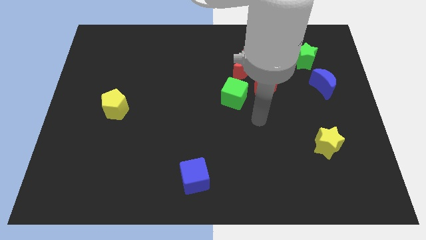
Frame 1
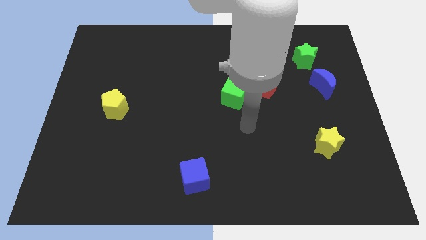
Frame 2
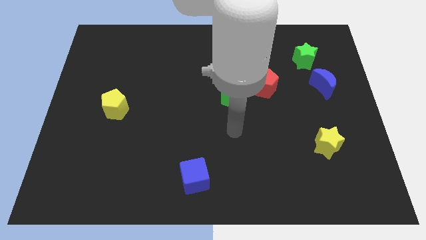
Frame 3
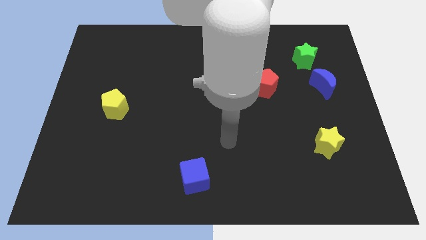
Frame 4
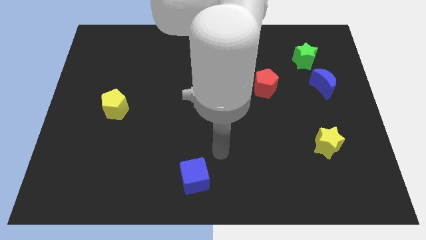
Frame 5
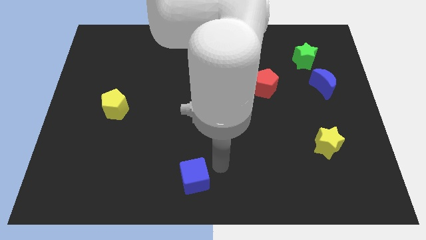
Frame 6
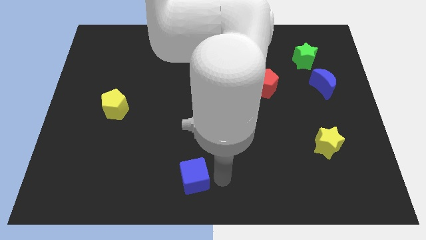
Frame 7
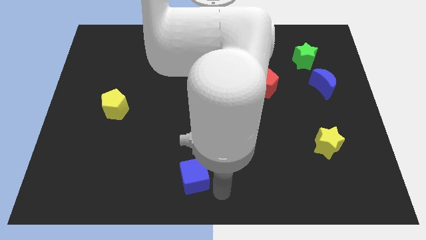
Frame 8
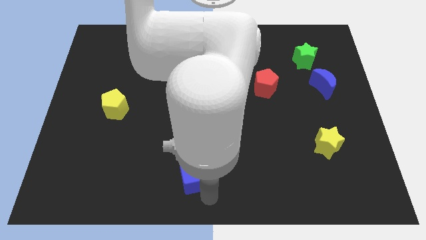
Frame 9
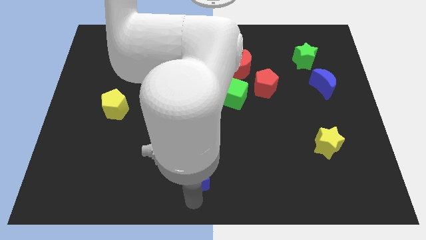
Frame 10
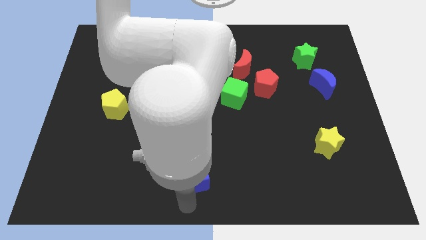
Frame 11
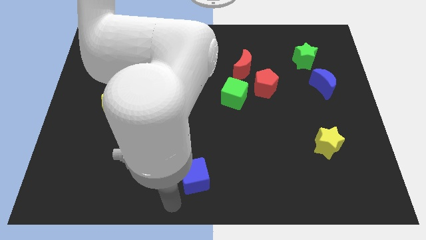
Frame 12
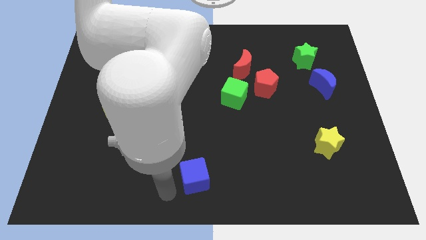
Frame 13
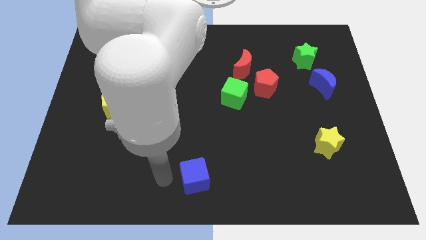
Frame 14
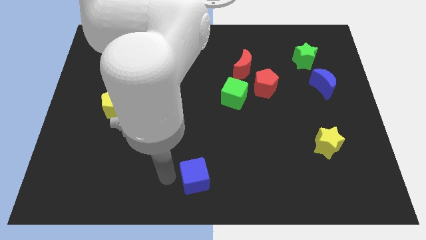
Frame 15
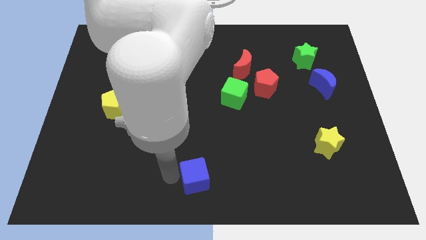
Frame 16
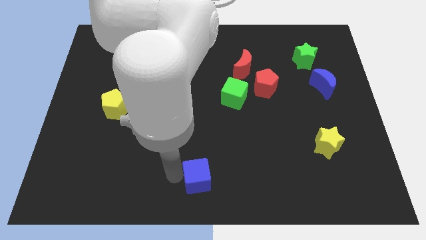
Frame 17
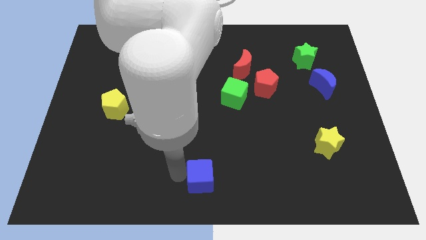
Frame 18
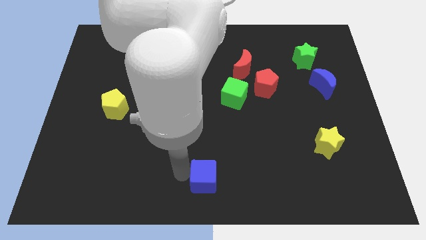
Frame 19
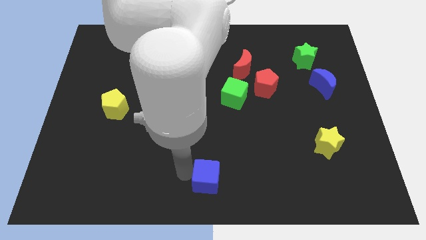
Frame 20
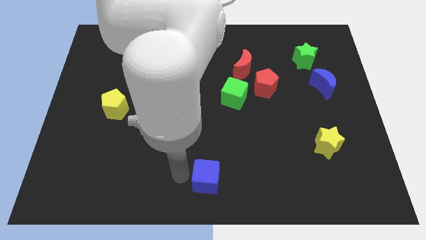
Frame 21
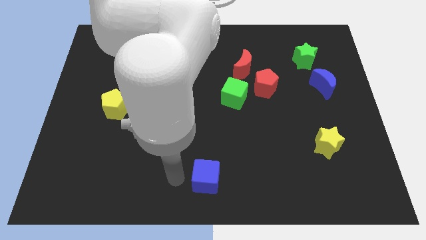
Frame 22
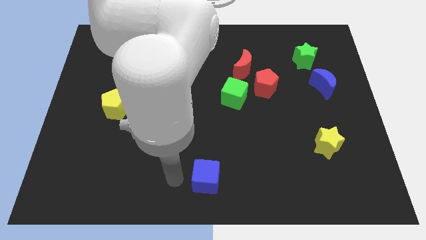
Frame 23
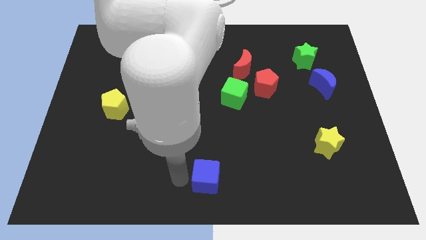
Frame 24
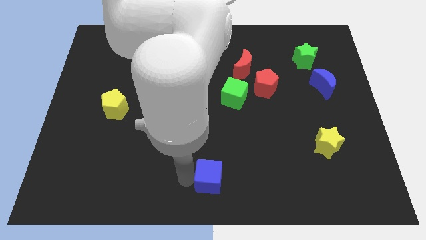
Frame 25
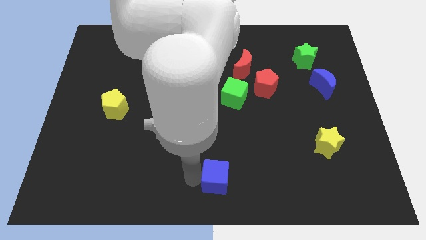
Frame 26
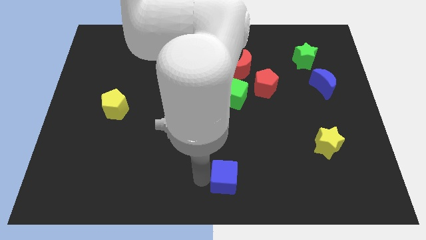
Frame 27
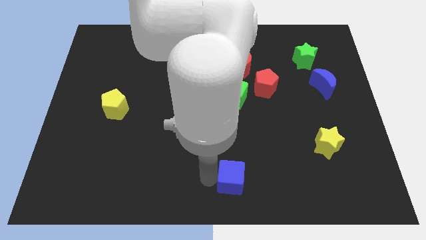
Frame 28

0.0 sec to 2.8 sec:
push the blue cube a little bit to the right

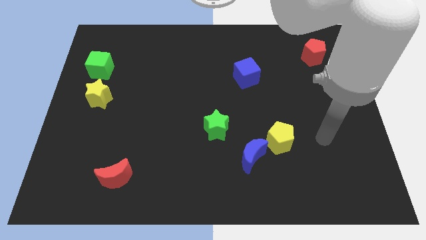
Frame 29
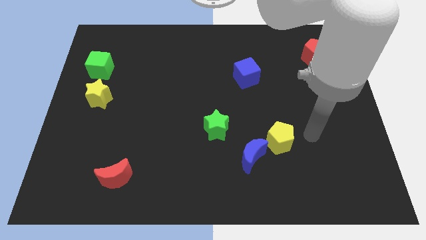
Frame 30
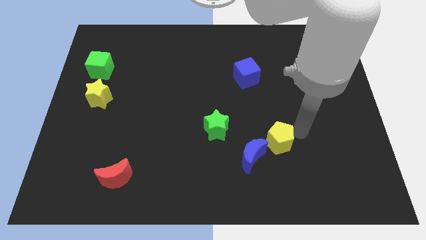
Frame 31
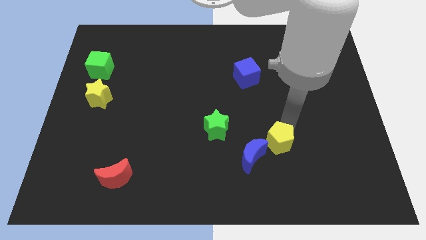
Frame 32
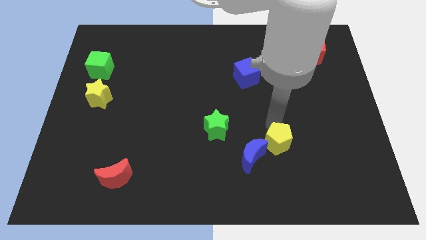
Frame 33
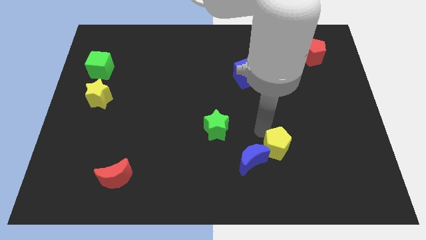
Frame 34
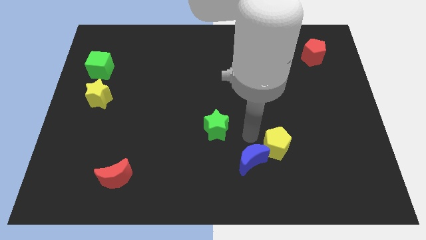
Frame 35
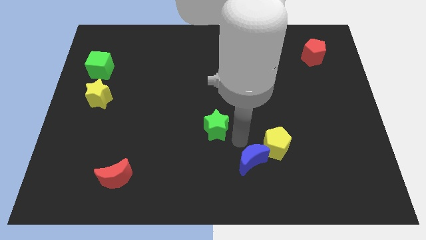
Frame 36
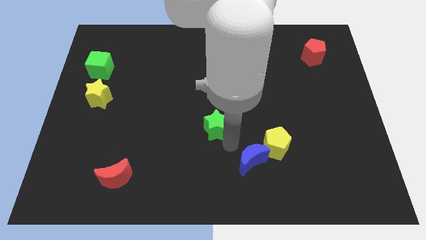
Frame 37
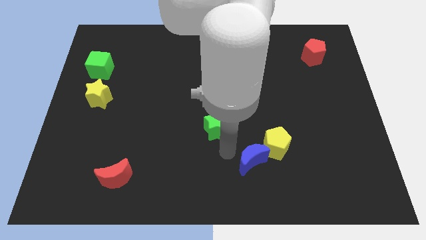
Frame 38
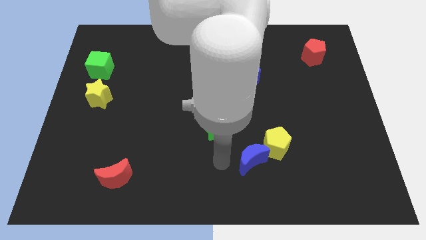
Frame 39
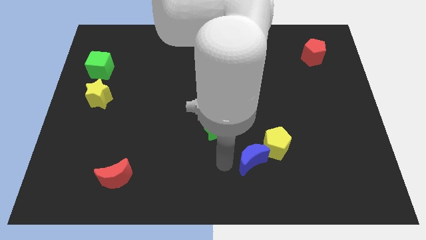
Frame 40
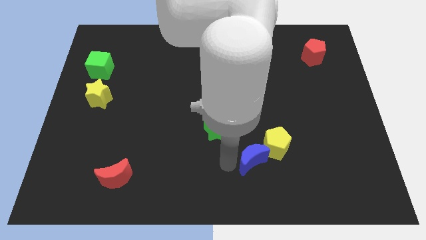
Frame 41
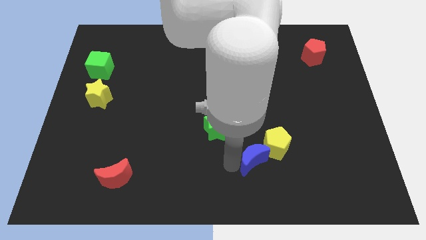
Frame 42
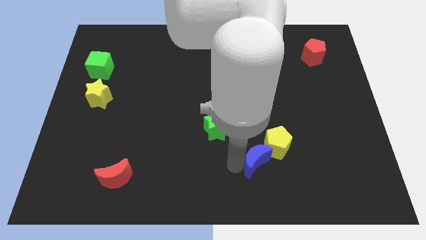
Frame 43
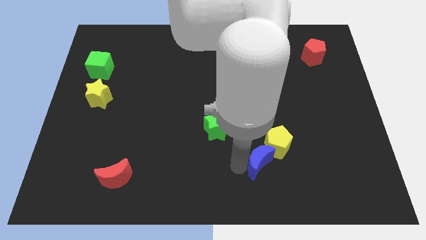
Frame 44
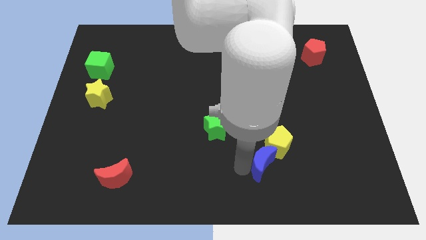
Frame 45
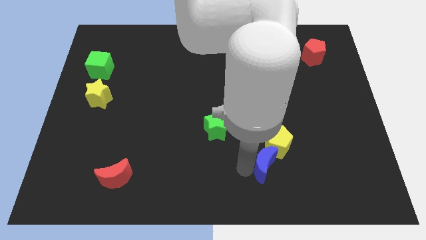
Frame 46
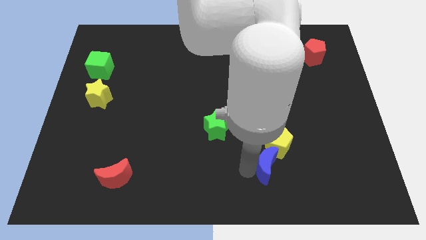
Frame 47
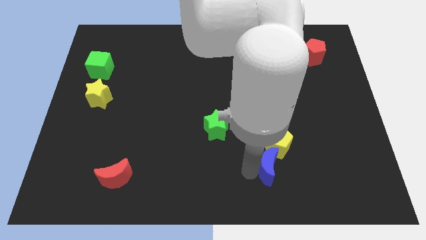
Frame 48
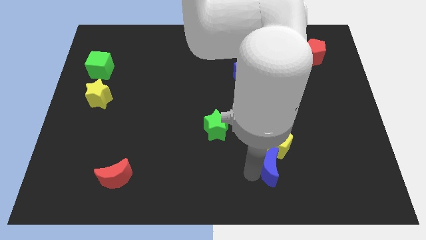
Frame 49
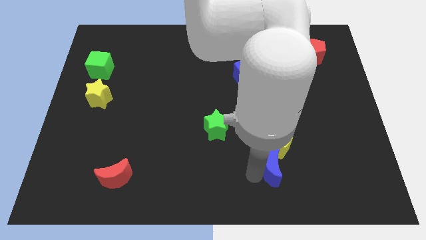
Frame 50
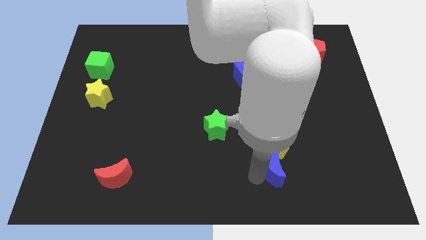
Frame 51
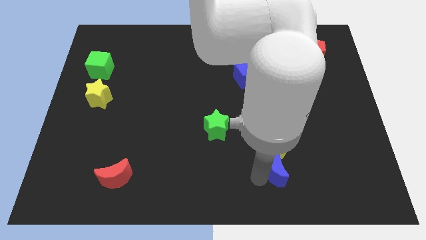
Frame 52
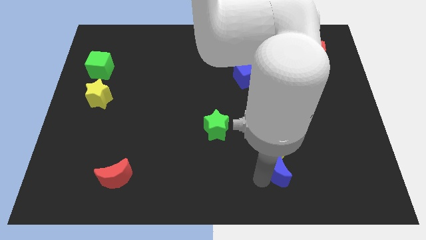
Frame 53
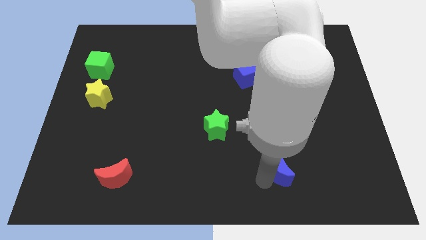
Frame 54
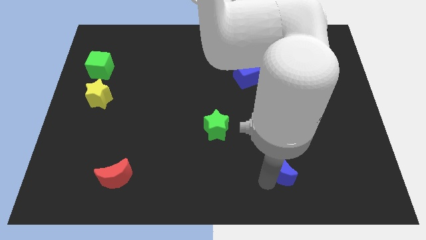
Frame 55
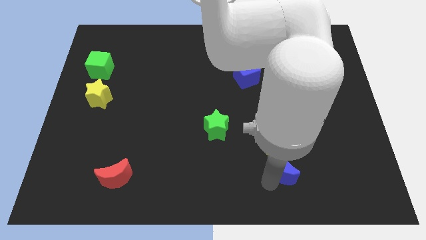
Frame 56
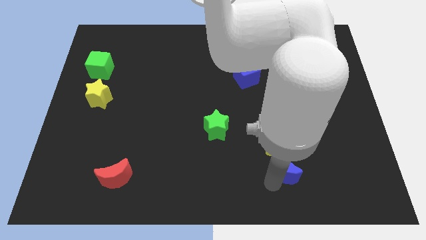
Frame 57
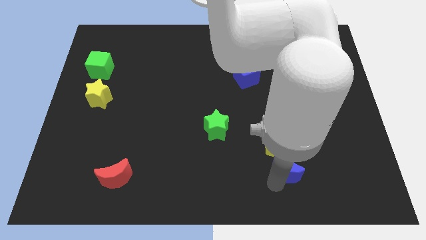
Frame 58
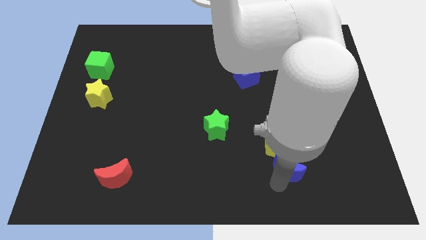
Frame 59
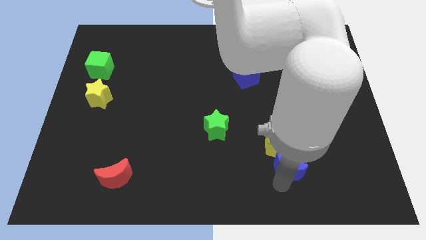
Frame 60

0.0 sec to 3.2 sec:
slide the blue moon a bit right

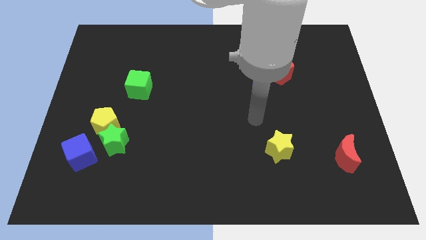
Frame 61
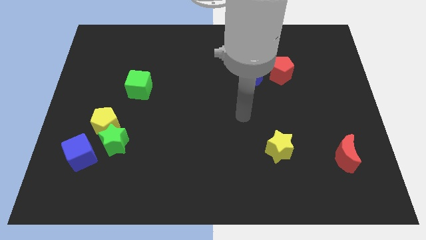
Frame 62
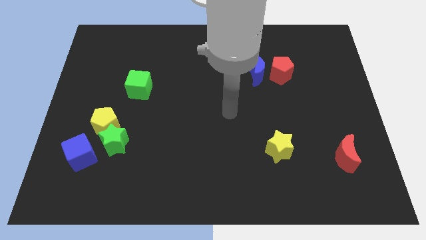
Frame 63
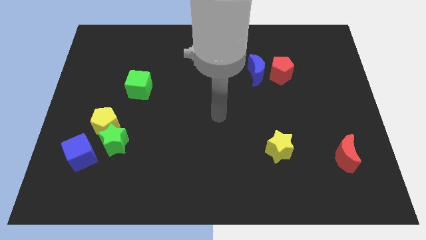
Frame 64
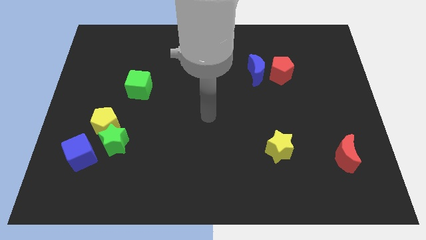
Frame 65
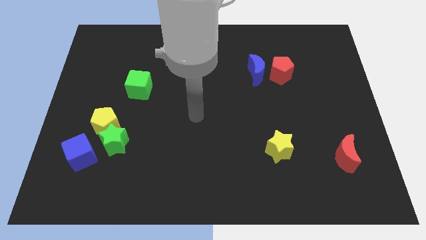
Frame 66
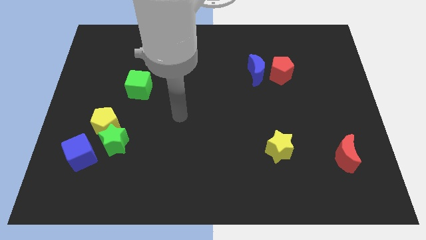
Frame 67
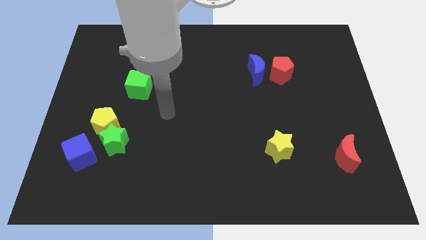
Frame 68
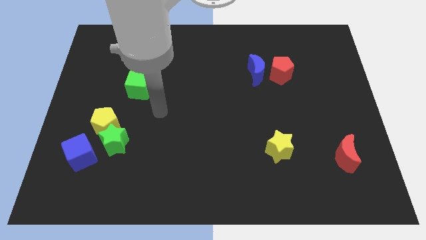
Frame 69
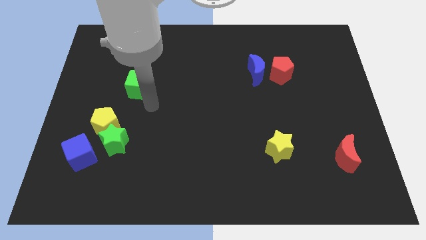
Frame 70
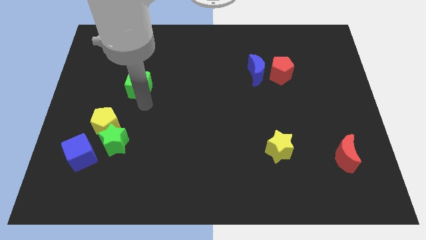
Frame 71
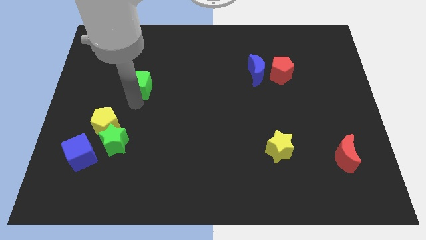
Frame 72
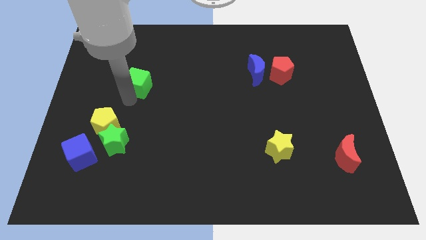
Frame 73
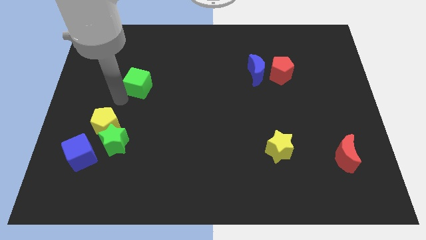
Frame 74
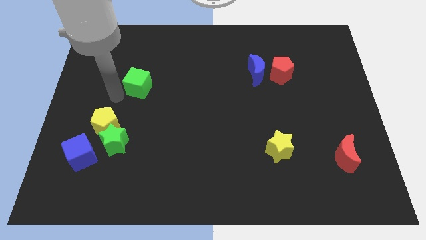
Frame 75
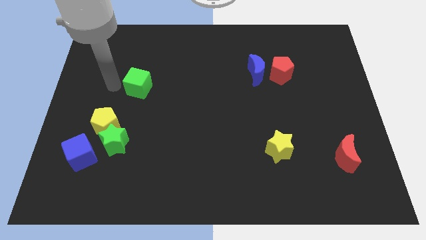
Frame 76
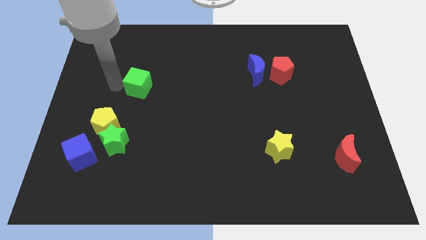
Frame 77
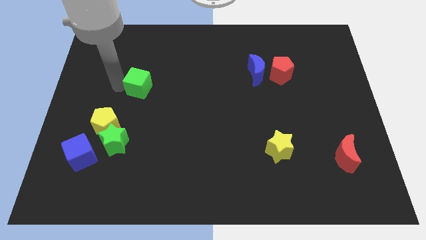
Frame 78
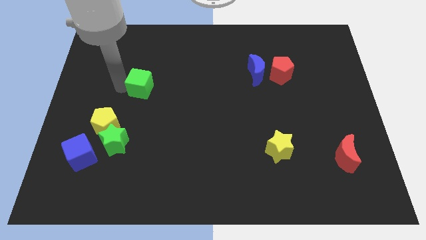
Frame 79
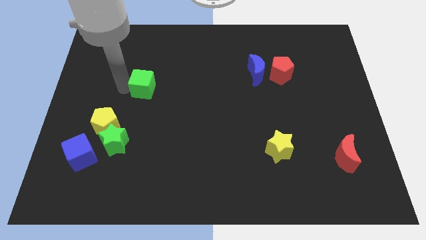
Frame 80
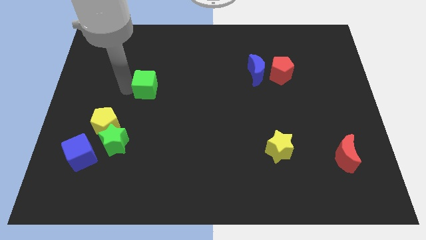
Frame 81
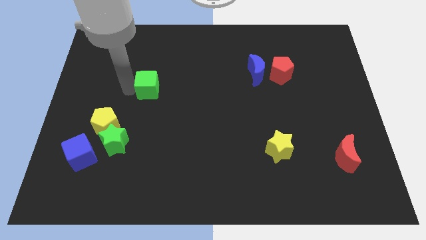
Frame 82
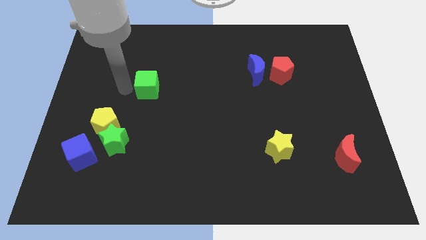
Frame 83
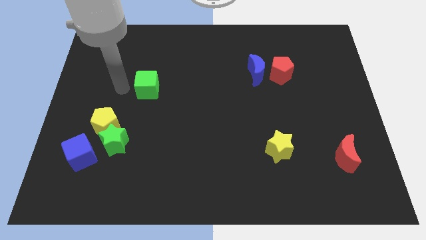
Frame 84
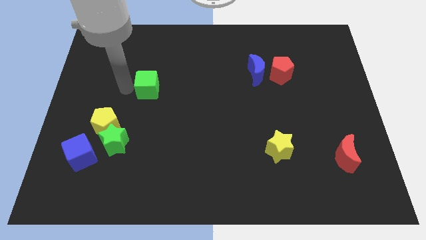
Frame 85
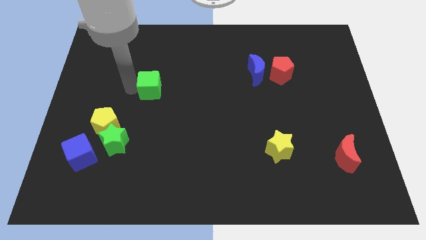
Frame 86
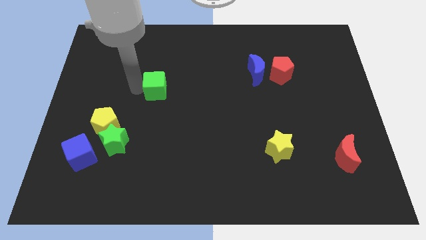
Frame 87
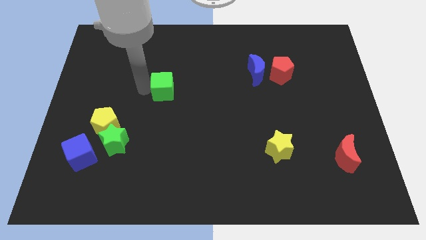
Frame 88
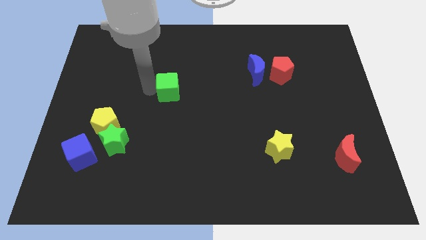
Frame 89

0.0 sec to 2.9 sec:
push the green cube to the right a little bit
